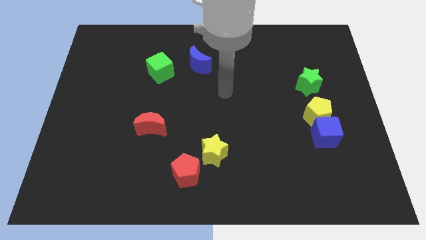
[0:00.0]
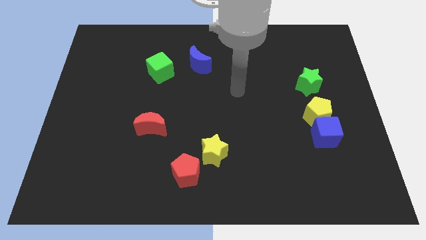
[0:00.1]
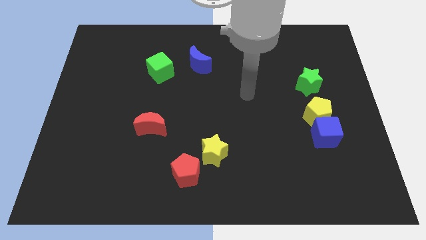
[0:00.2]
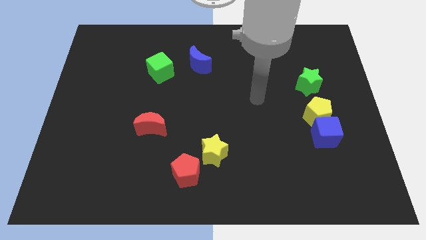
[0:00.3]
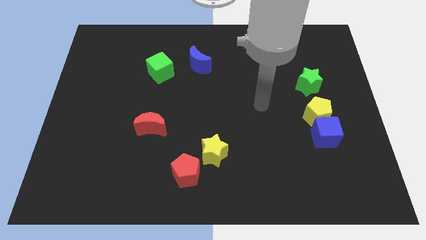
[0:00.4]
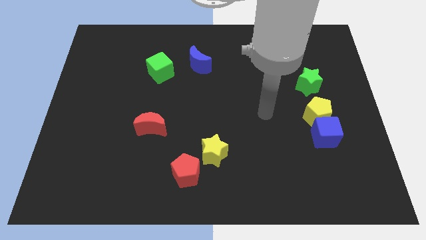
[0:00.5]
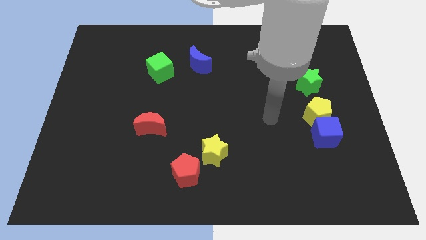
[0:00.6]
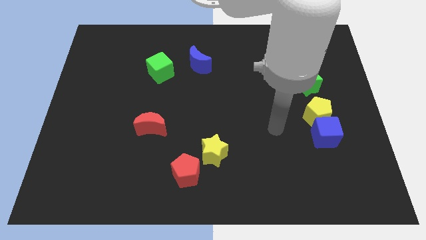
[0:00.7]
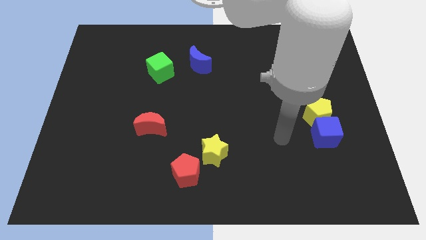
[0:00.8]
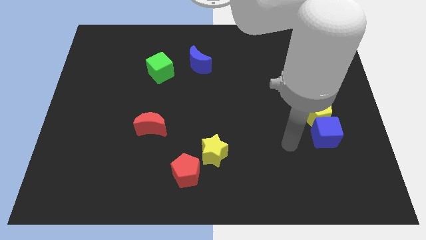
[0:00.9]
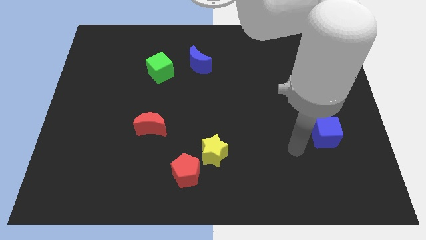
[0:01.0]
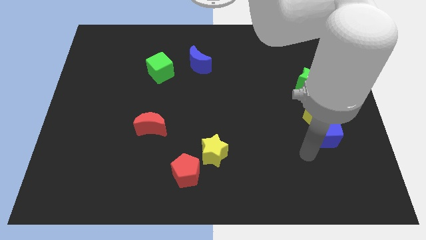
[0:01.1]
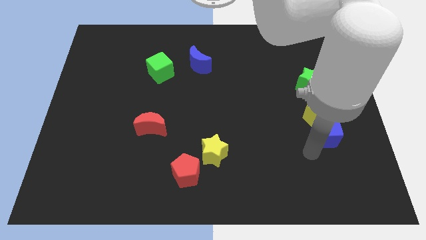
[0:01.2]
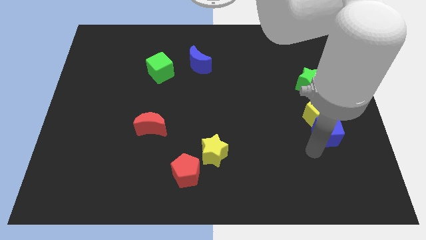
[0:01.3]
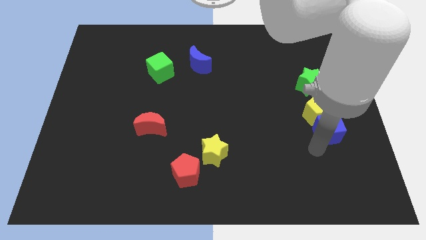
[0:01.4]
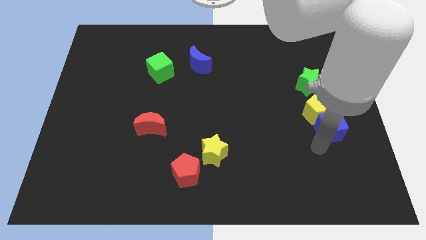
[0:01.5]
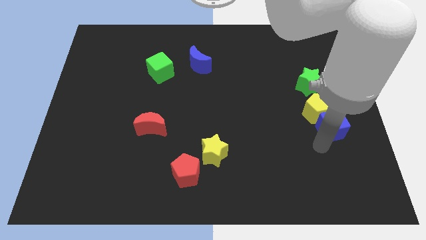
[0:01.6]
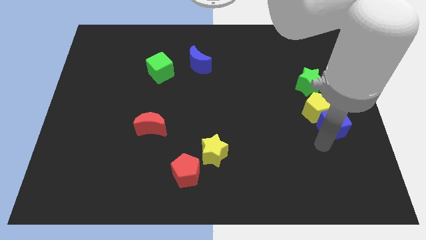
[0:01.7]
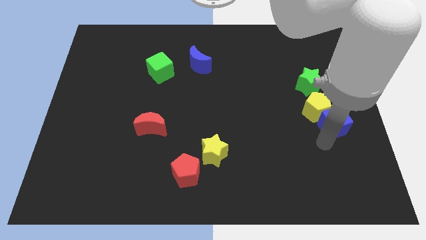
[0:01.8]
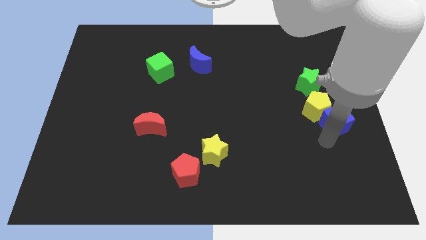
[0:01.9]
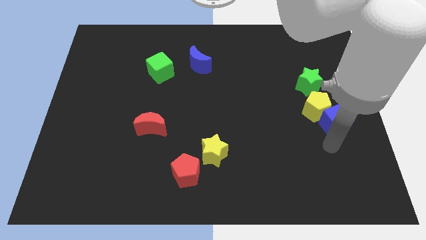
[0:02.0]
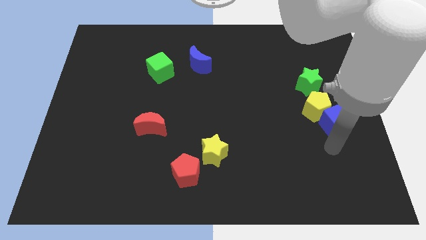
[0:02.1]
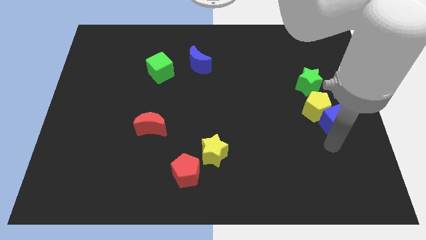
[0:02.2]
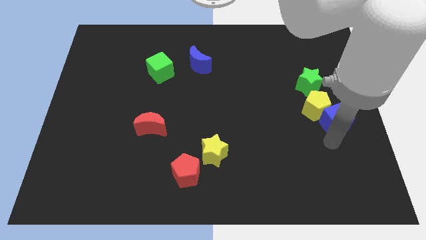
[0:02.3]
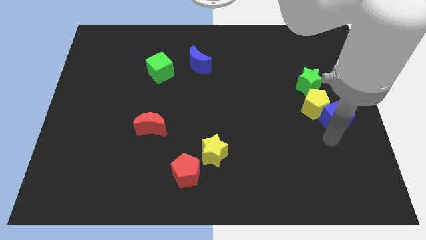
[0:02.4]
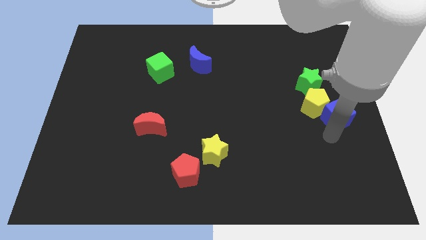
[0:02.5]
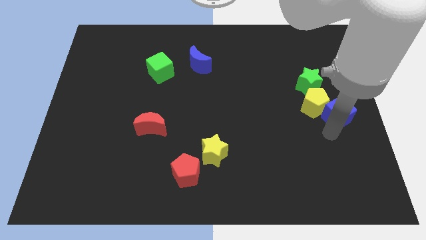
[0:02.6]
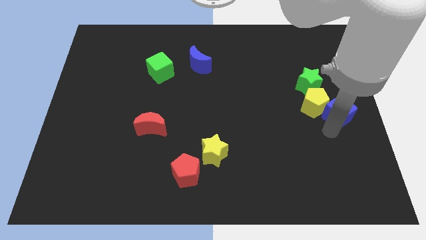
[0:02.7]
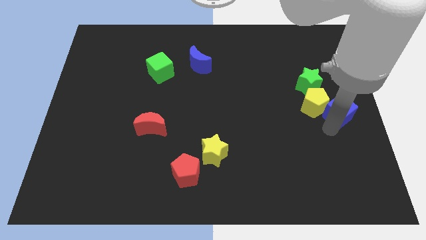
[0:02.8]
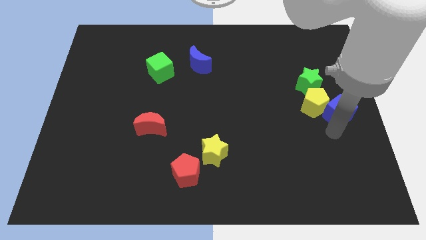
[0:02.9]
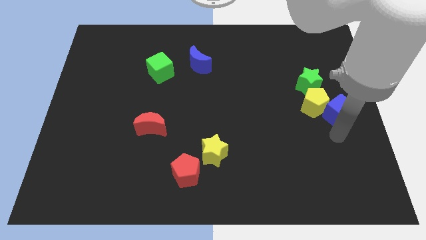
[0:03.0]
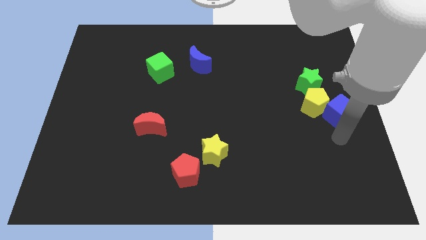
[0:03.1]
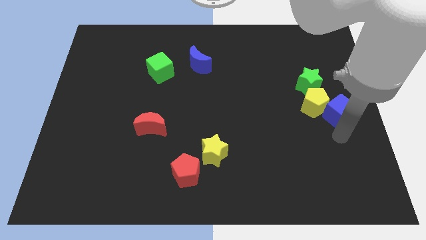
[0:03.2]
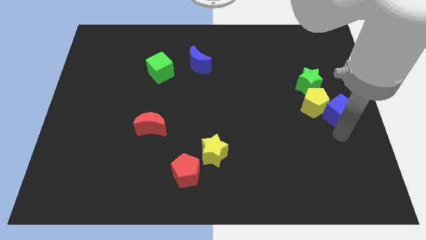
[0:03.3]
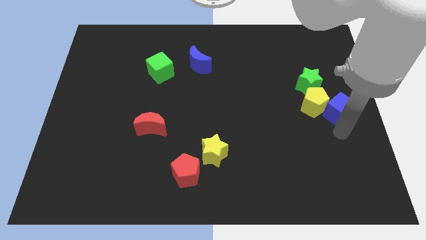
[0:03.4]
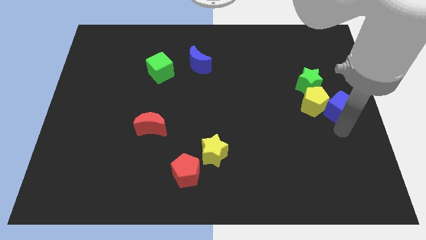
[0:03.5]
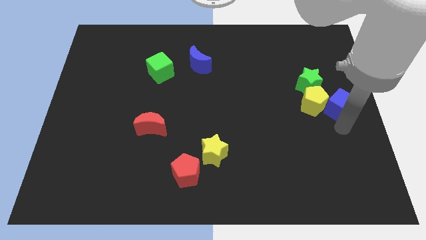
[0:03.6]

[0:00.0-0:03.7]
push the blue cube up a little bit

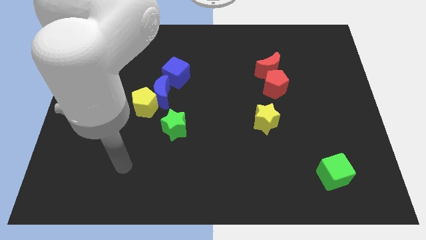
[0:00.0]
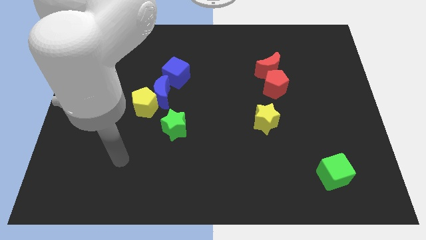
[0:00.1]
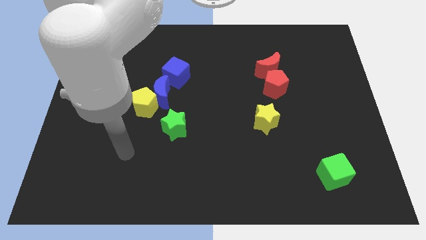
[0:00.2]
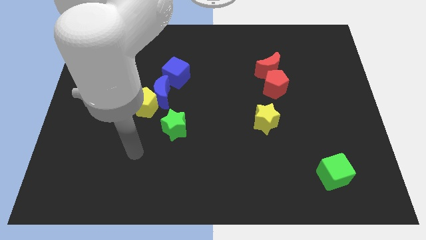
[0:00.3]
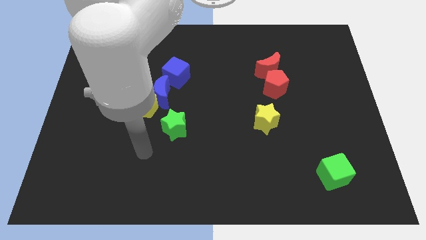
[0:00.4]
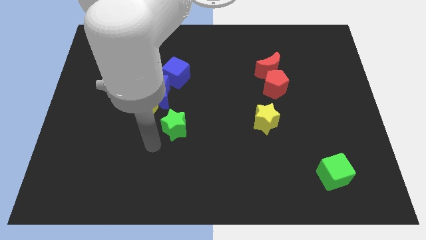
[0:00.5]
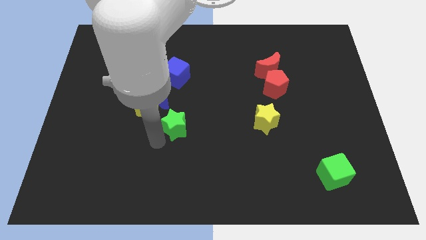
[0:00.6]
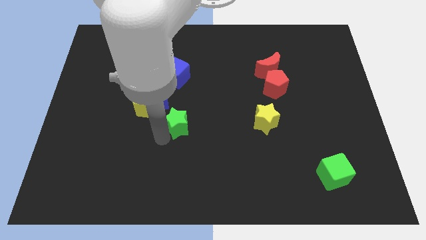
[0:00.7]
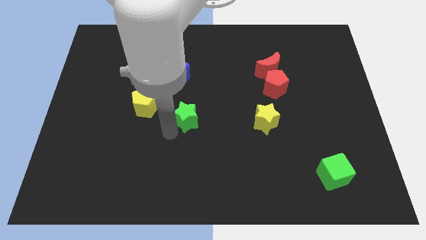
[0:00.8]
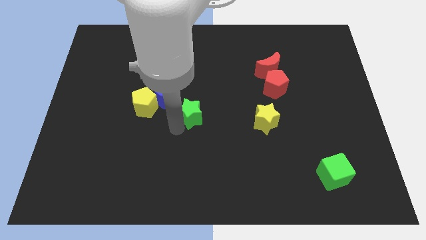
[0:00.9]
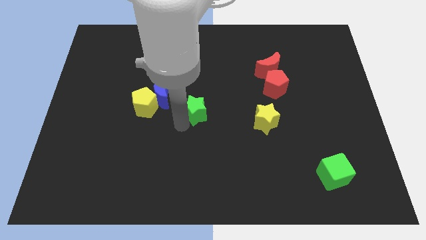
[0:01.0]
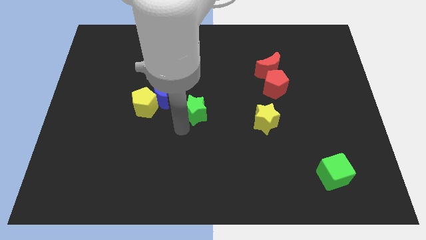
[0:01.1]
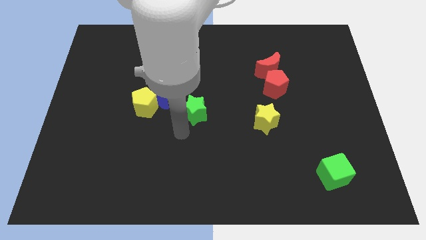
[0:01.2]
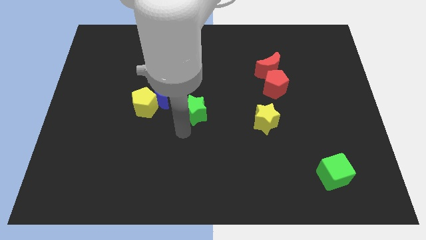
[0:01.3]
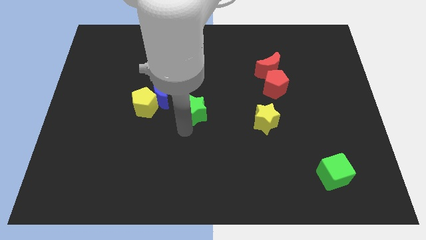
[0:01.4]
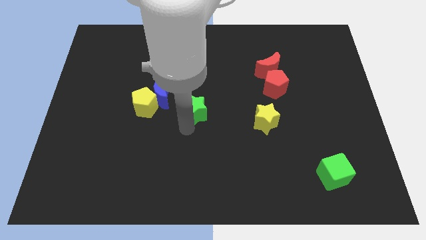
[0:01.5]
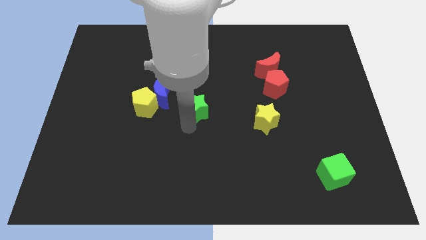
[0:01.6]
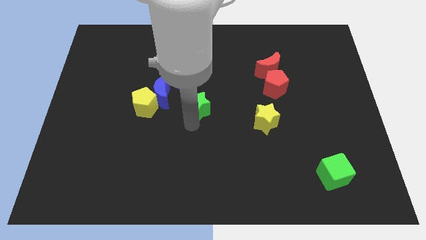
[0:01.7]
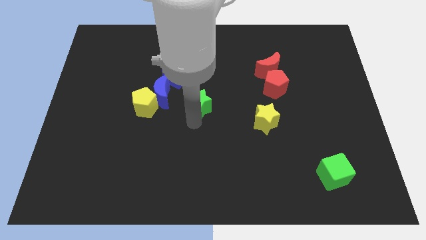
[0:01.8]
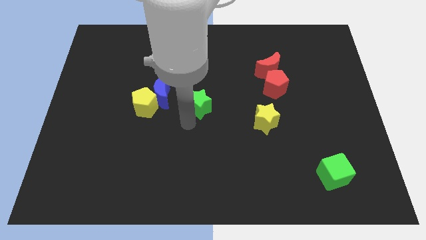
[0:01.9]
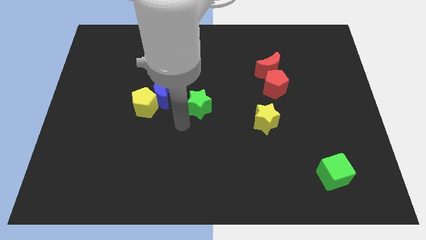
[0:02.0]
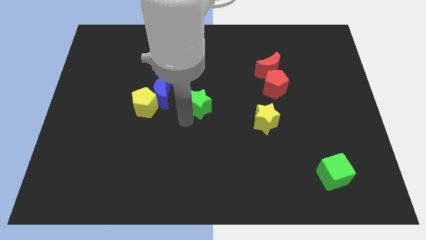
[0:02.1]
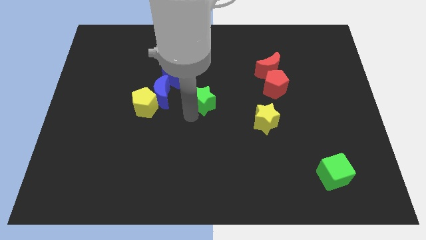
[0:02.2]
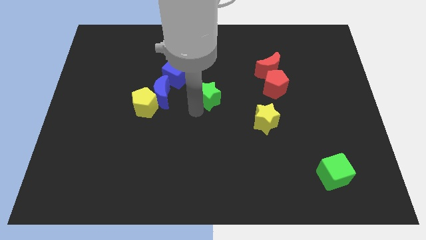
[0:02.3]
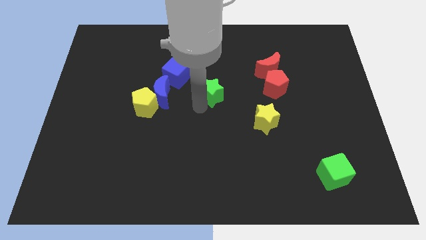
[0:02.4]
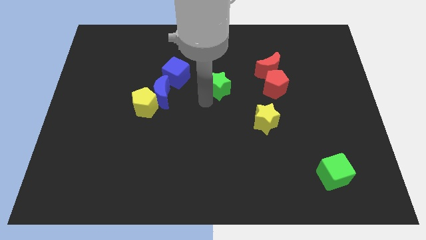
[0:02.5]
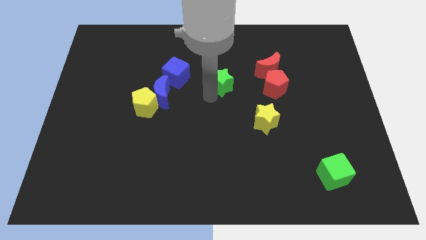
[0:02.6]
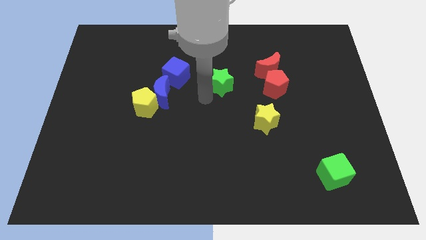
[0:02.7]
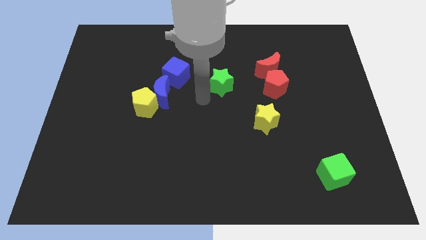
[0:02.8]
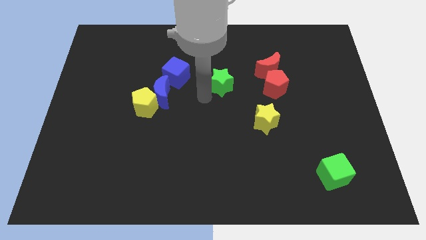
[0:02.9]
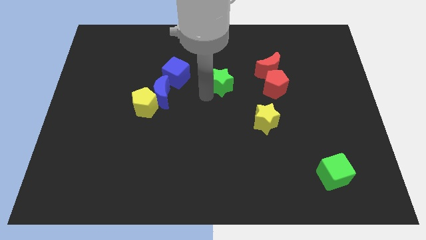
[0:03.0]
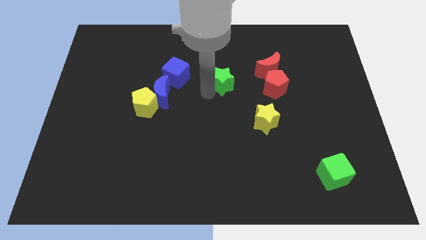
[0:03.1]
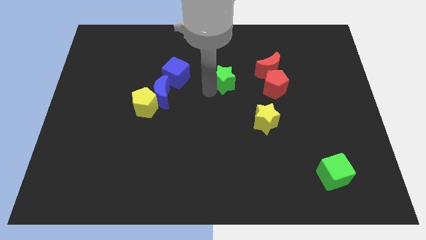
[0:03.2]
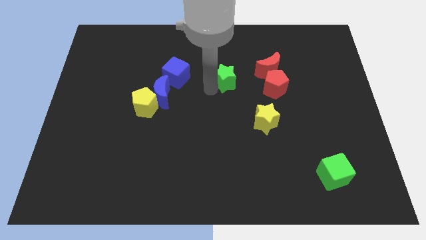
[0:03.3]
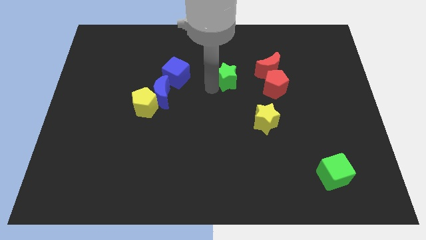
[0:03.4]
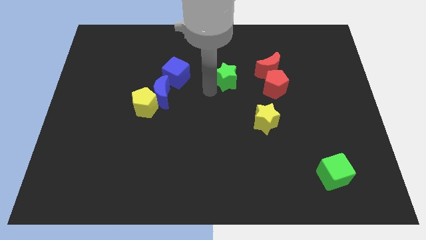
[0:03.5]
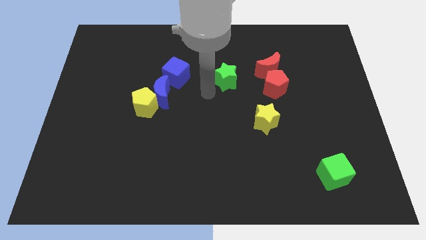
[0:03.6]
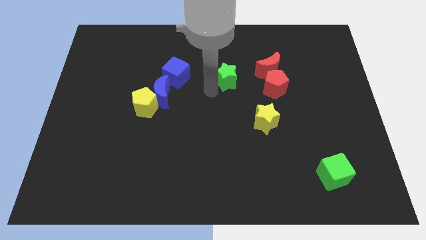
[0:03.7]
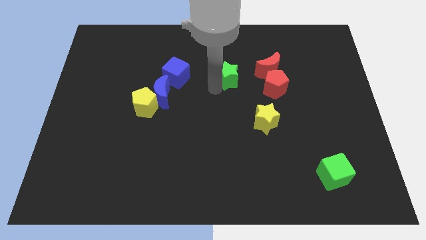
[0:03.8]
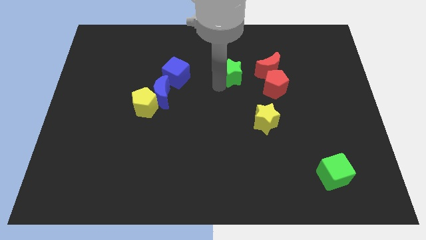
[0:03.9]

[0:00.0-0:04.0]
move the green star upwards and to the right

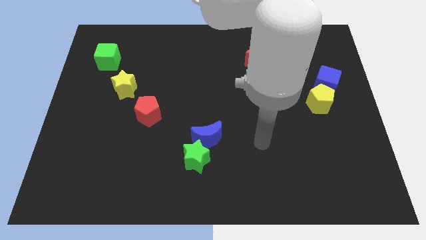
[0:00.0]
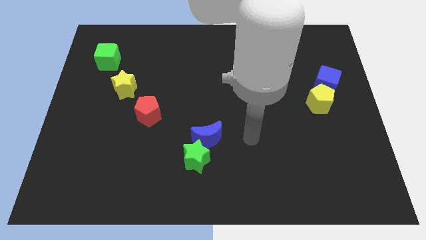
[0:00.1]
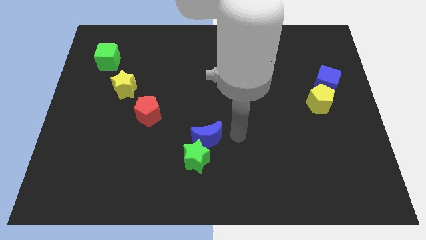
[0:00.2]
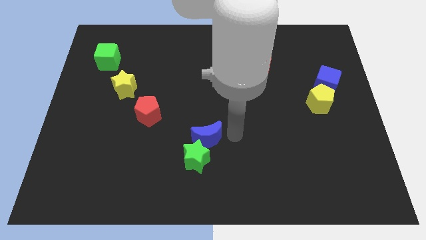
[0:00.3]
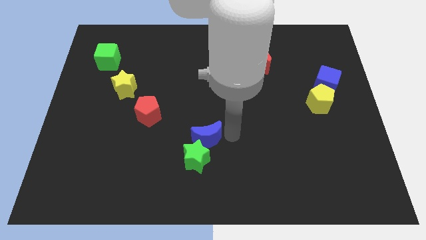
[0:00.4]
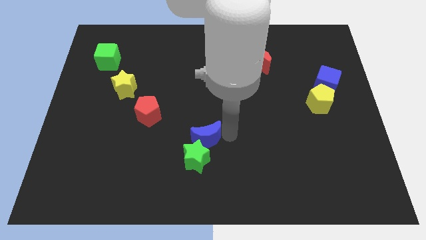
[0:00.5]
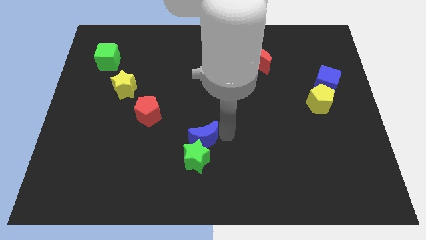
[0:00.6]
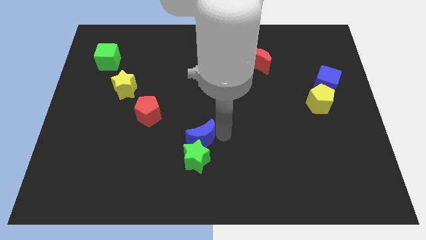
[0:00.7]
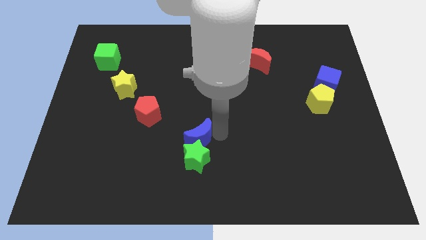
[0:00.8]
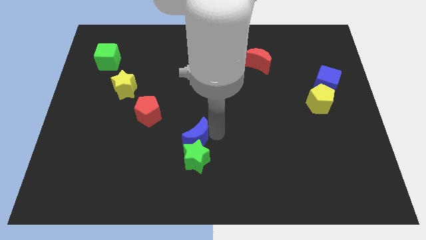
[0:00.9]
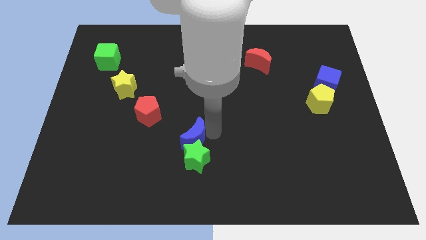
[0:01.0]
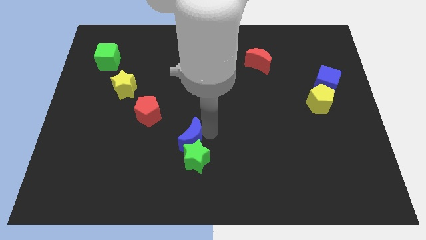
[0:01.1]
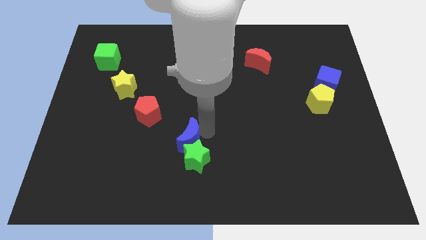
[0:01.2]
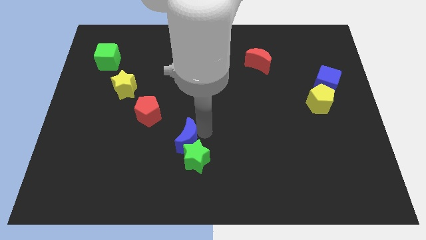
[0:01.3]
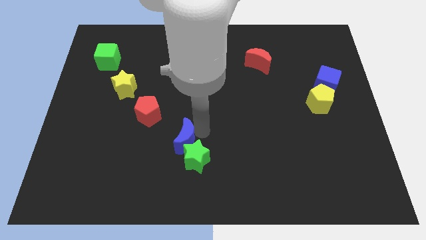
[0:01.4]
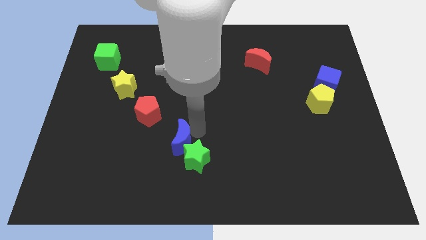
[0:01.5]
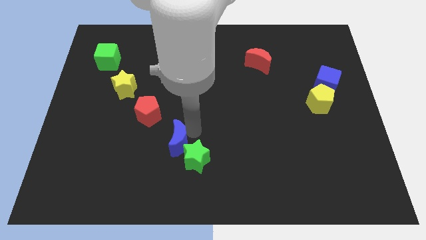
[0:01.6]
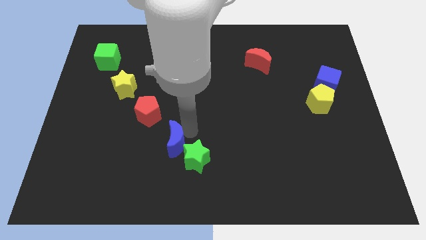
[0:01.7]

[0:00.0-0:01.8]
push the blue moon left a little
